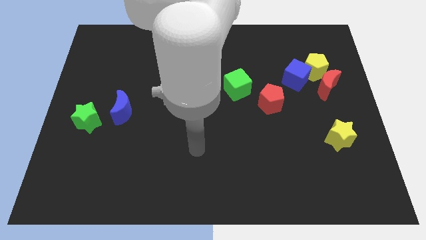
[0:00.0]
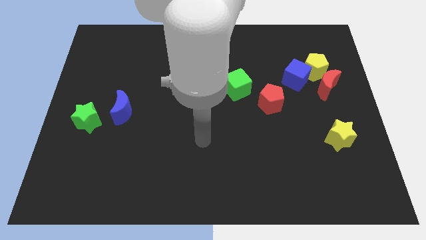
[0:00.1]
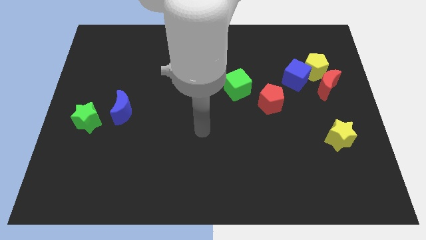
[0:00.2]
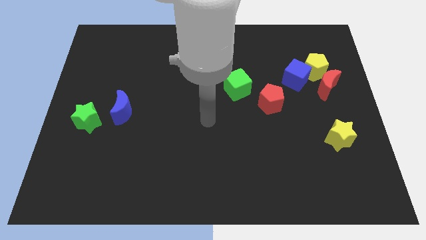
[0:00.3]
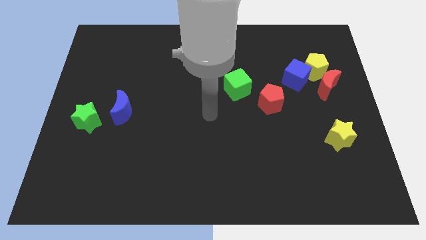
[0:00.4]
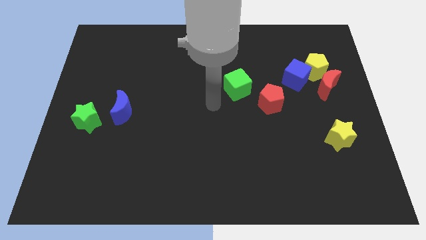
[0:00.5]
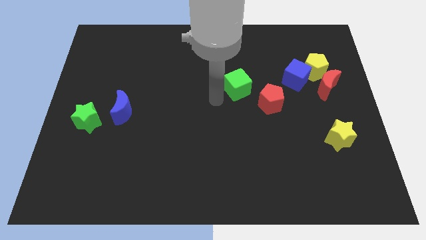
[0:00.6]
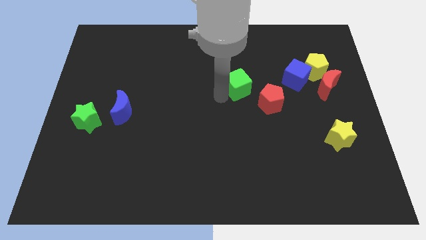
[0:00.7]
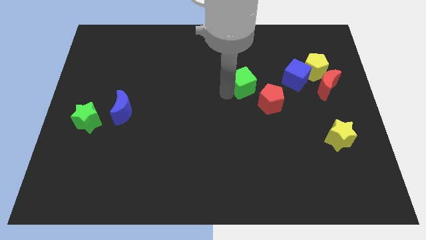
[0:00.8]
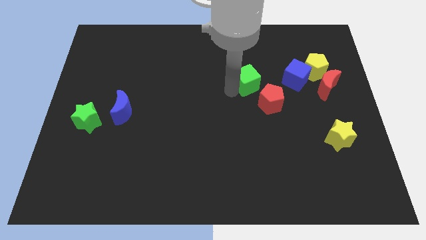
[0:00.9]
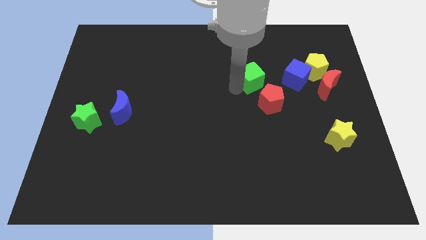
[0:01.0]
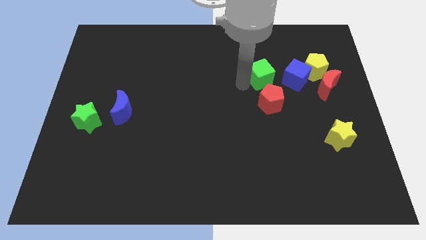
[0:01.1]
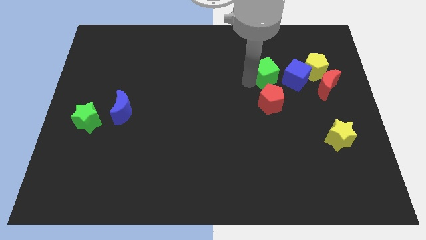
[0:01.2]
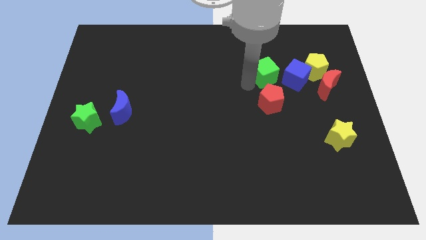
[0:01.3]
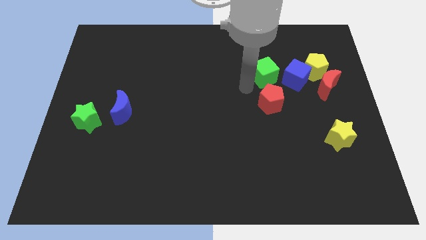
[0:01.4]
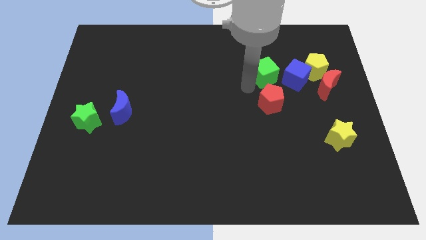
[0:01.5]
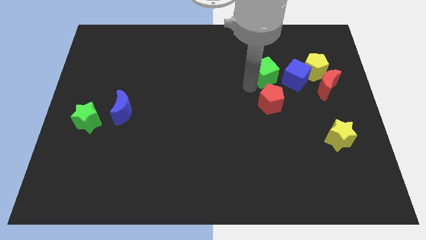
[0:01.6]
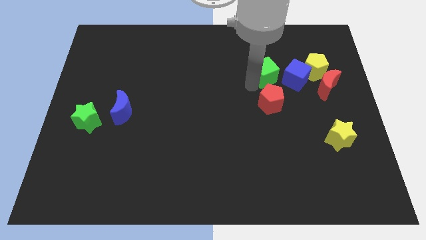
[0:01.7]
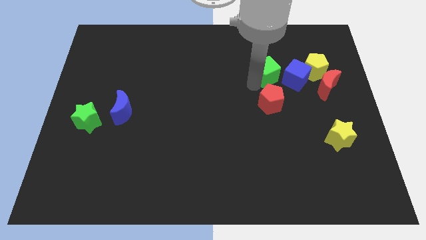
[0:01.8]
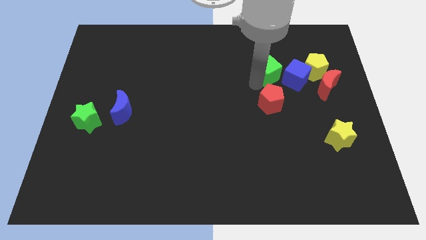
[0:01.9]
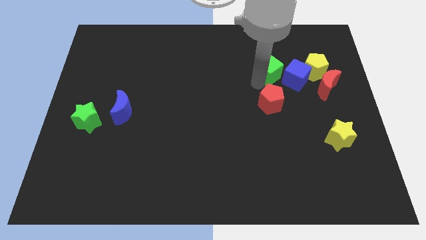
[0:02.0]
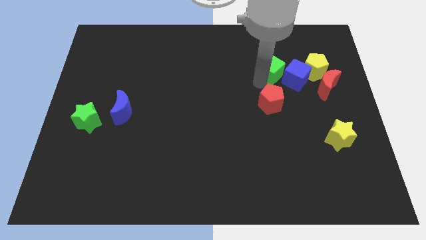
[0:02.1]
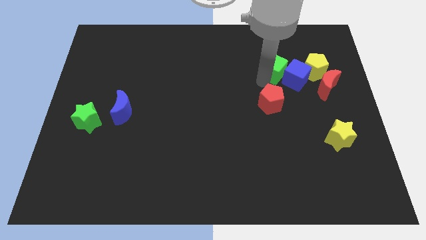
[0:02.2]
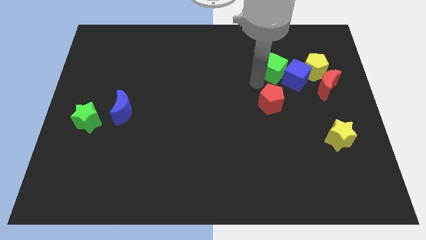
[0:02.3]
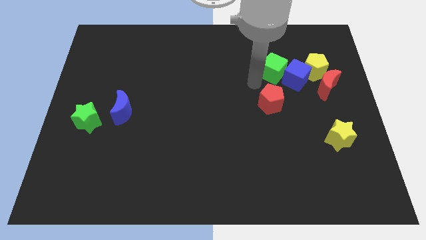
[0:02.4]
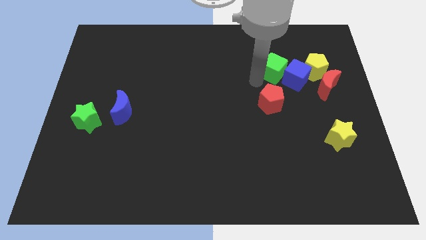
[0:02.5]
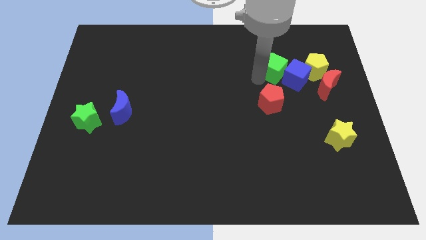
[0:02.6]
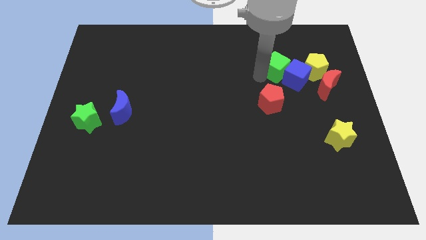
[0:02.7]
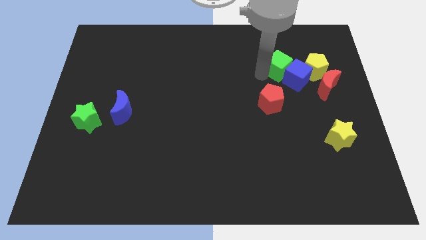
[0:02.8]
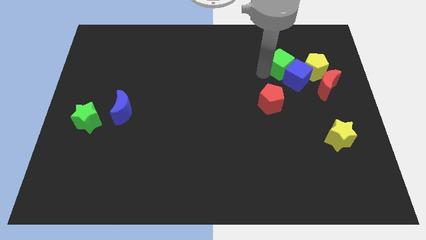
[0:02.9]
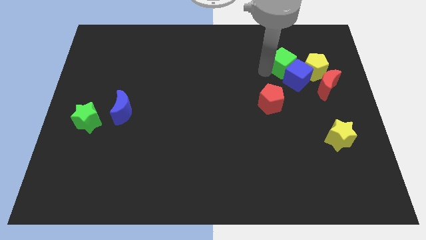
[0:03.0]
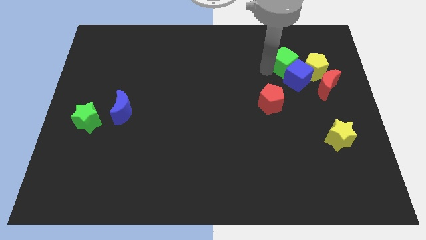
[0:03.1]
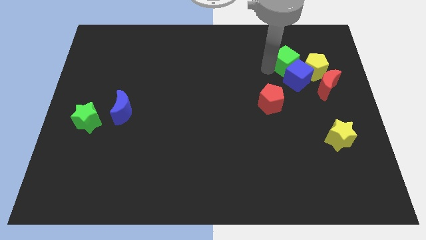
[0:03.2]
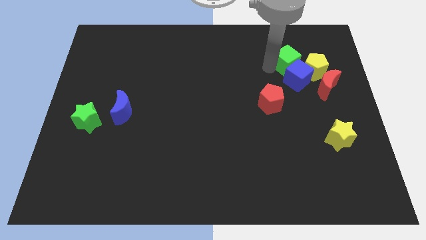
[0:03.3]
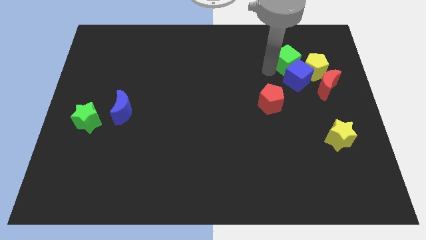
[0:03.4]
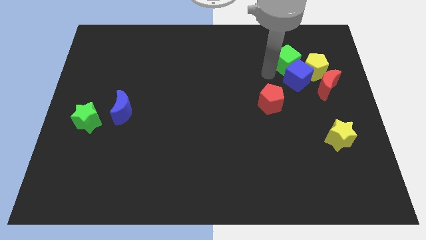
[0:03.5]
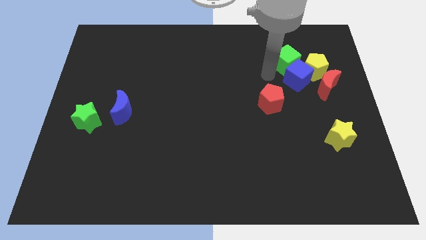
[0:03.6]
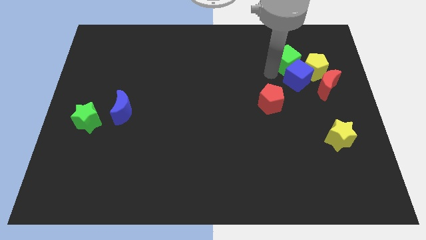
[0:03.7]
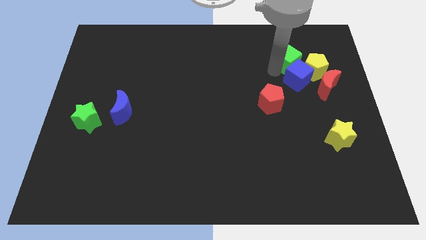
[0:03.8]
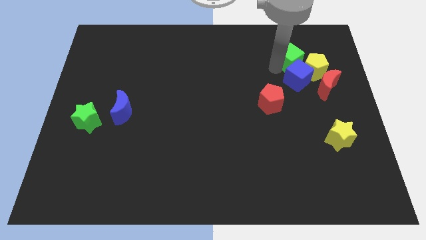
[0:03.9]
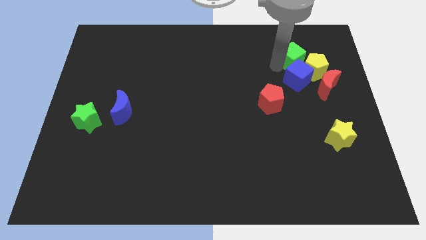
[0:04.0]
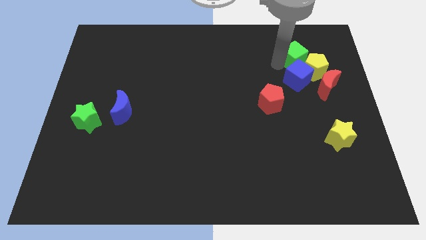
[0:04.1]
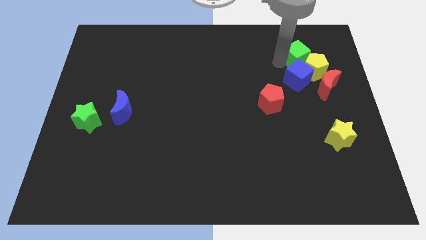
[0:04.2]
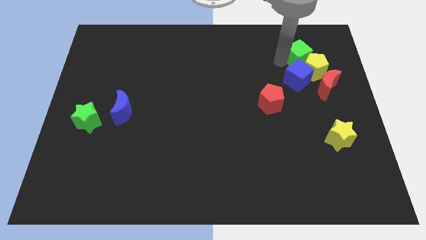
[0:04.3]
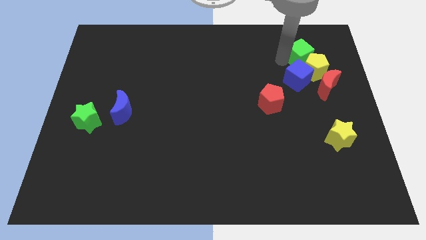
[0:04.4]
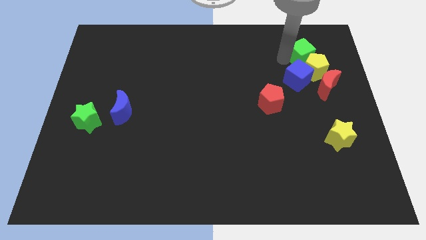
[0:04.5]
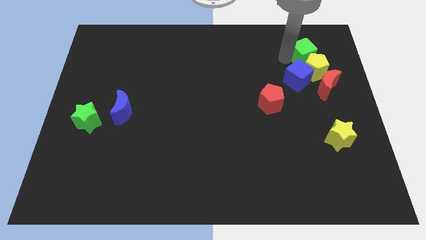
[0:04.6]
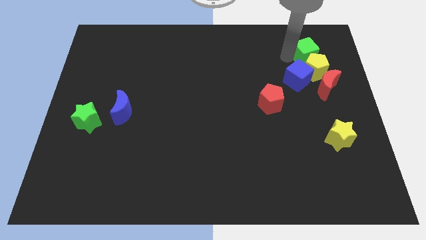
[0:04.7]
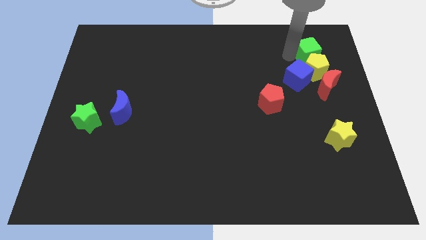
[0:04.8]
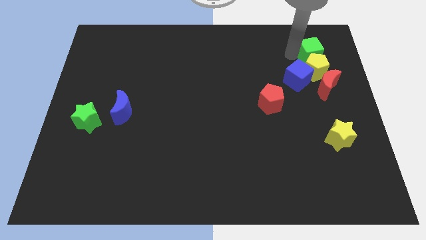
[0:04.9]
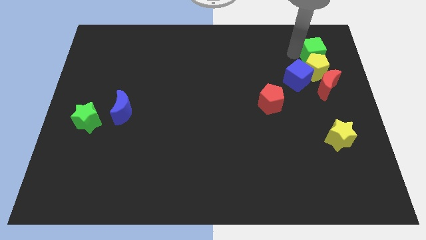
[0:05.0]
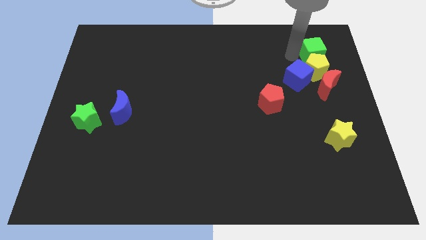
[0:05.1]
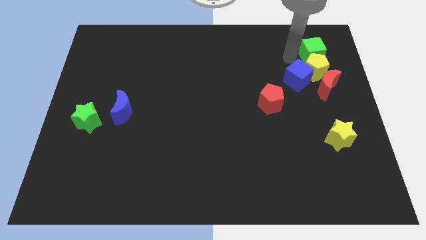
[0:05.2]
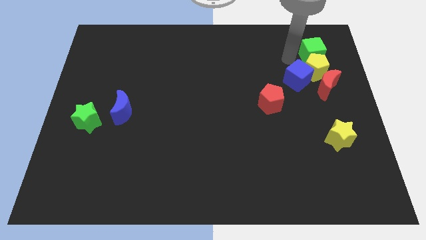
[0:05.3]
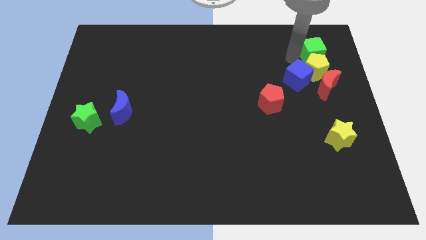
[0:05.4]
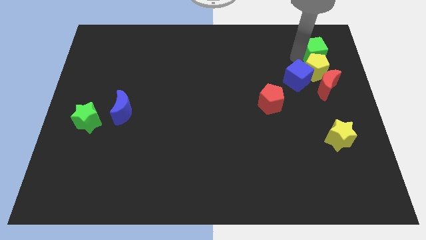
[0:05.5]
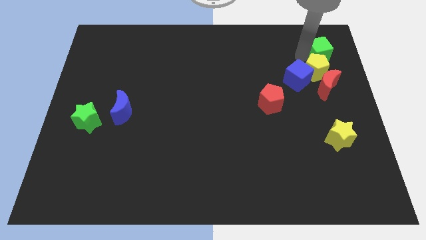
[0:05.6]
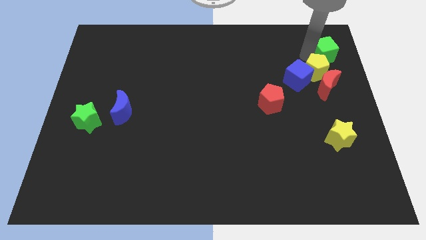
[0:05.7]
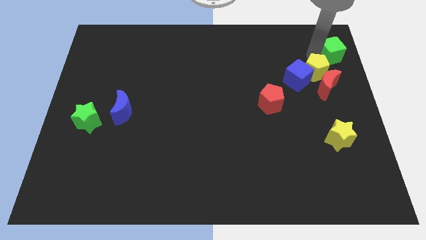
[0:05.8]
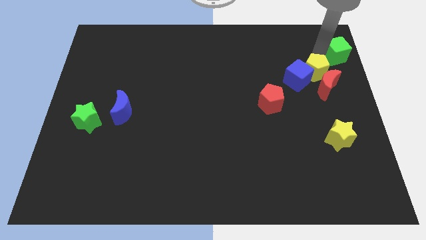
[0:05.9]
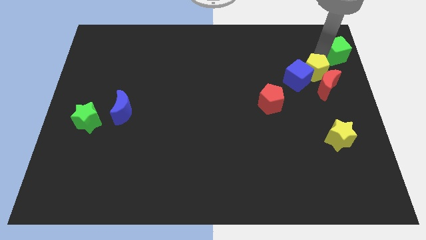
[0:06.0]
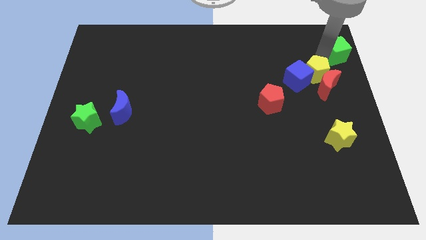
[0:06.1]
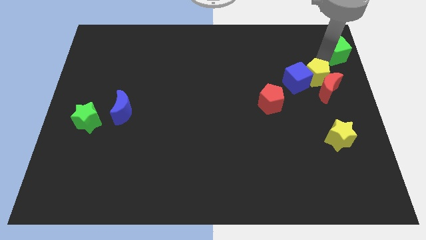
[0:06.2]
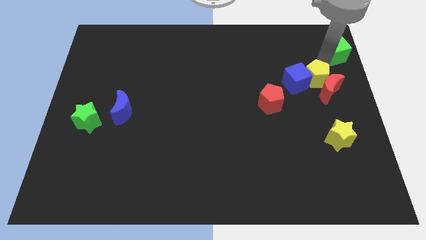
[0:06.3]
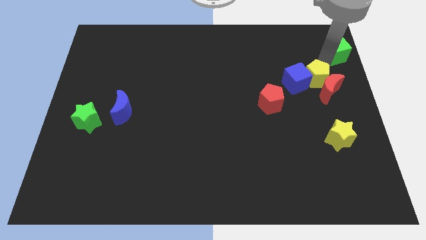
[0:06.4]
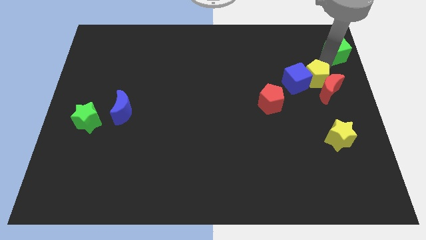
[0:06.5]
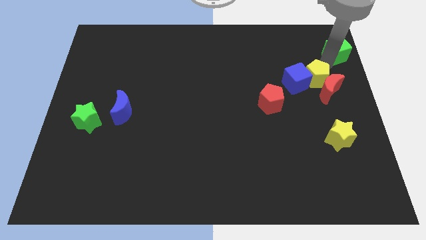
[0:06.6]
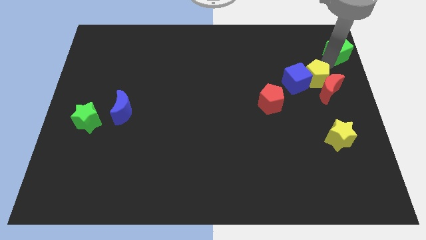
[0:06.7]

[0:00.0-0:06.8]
push the green cube to the top right corner
